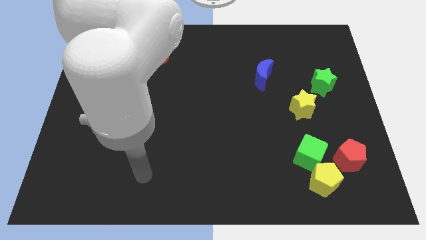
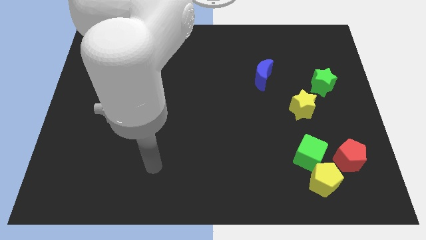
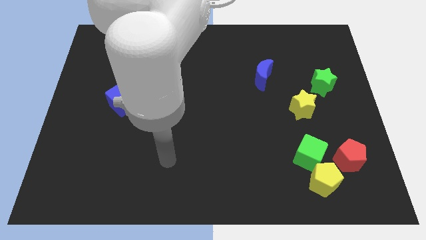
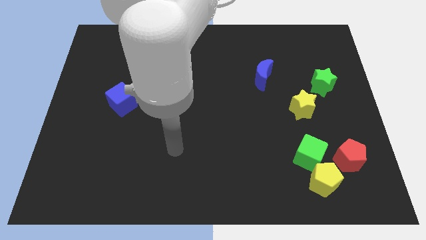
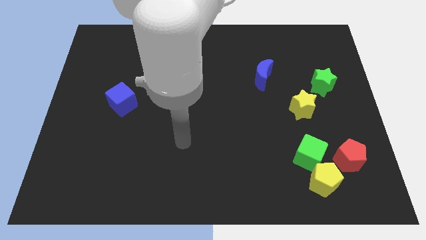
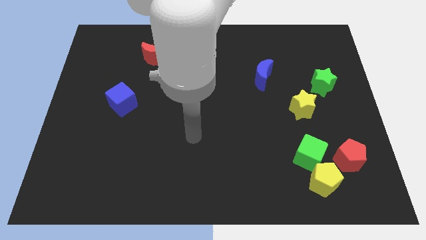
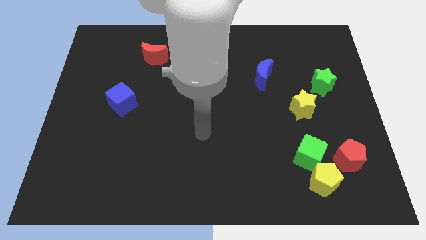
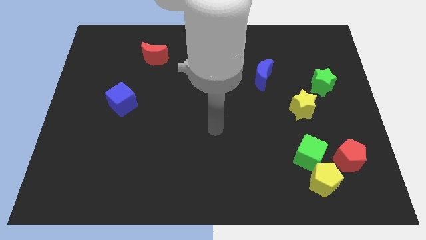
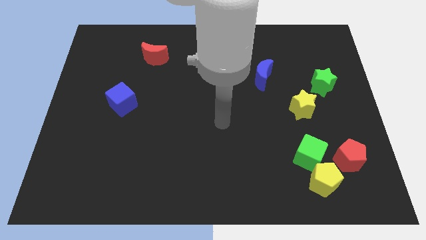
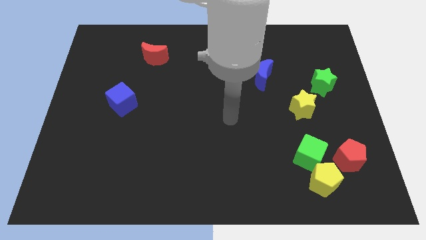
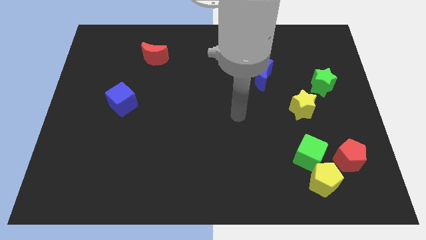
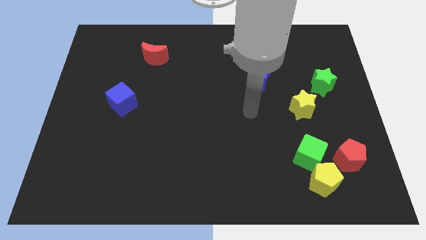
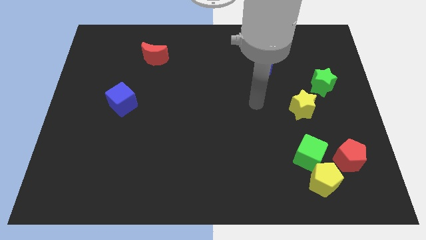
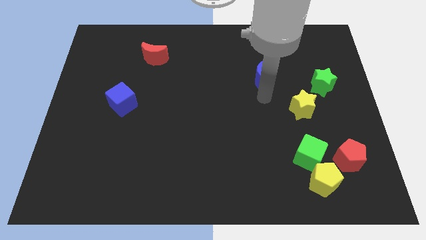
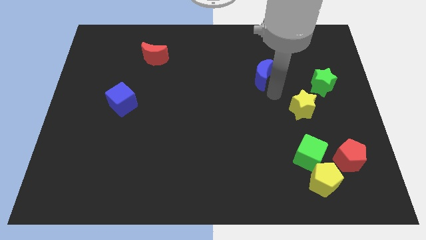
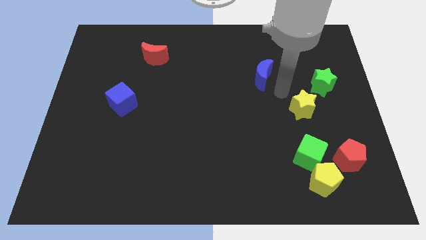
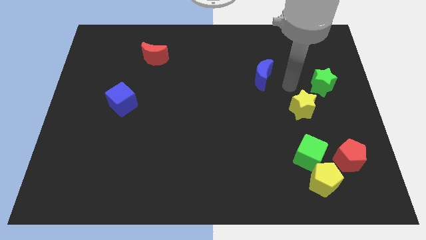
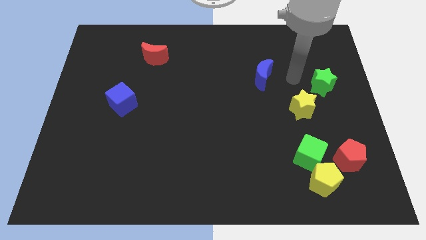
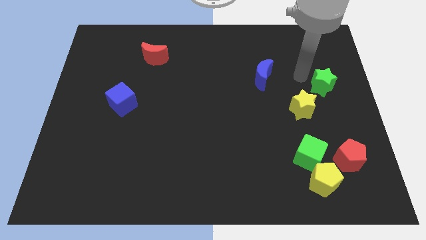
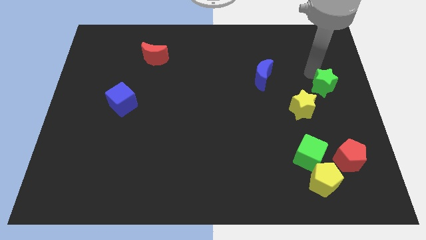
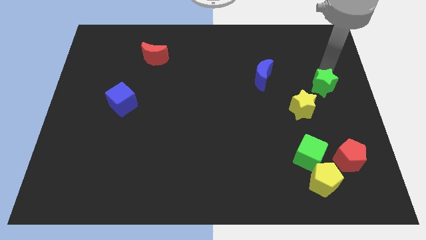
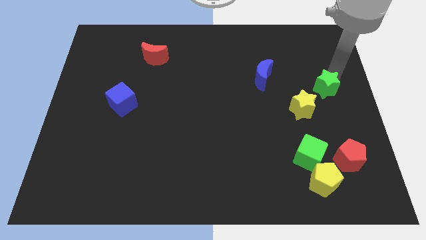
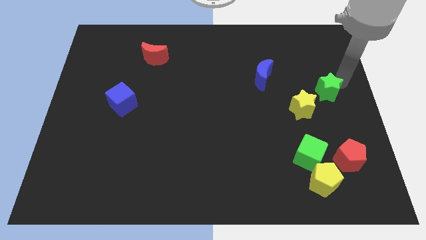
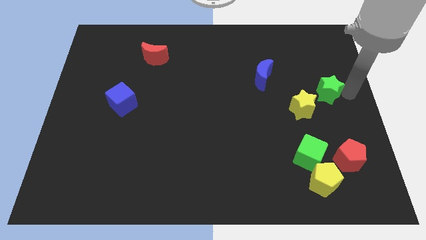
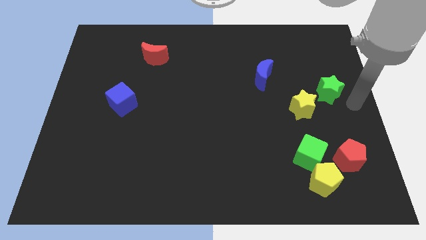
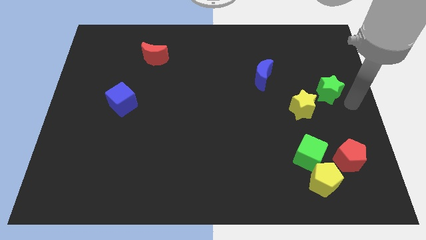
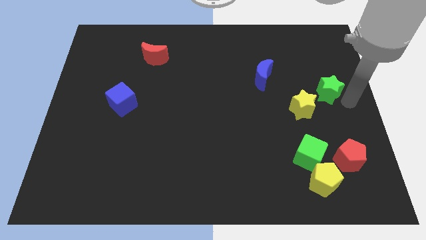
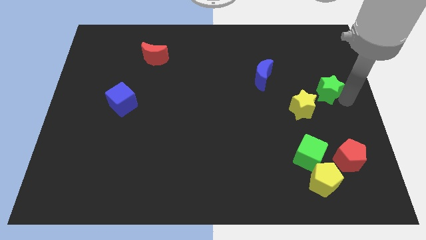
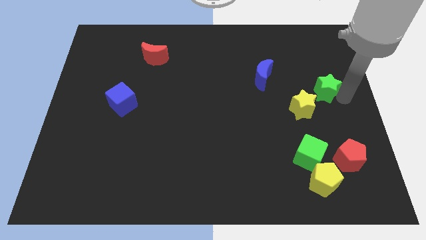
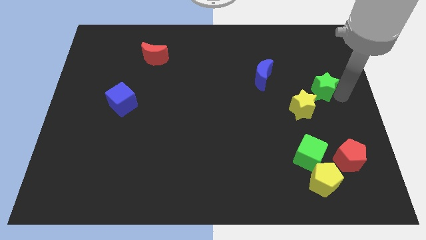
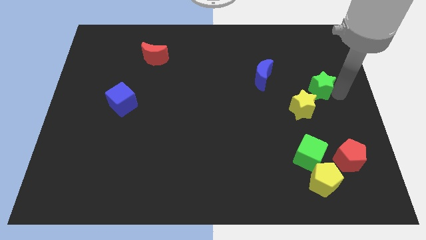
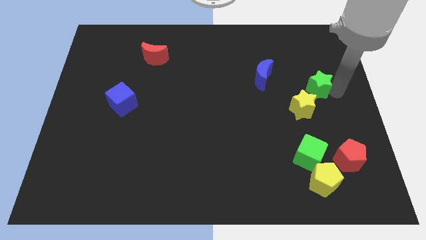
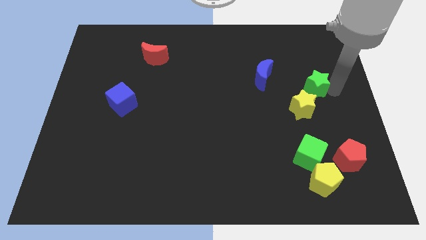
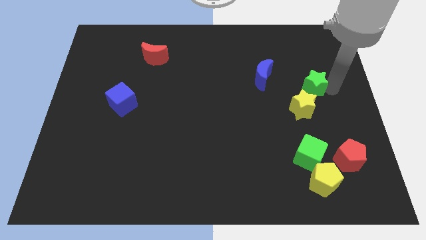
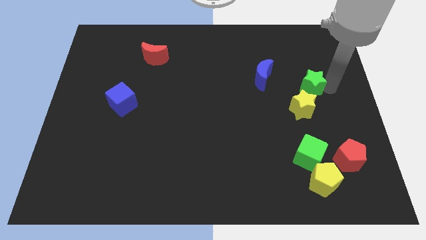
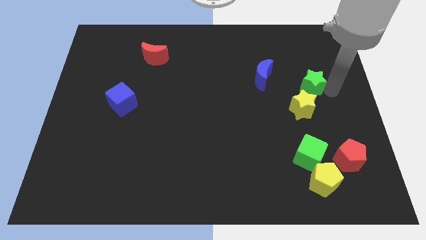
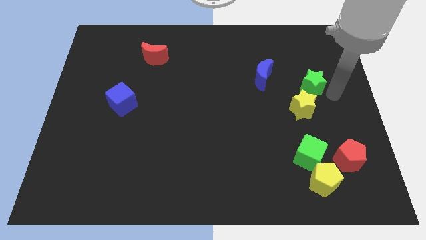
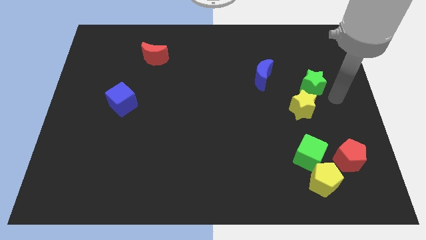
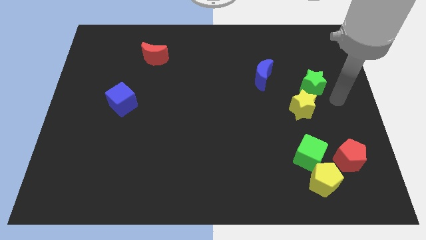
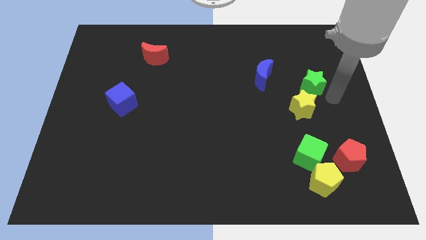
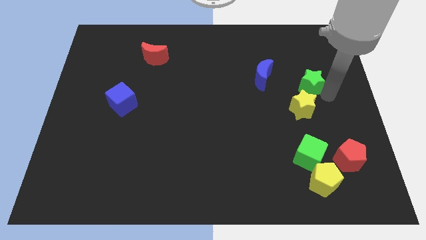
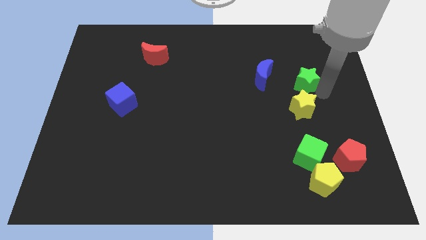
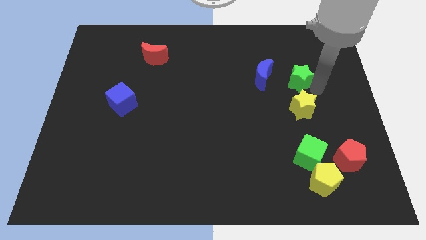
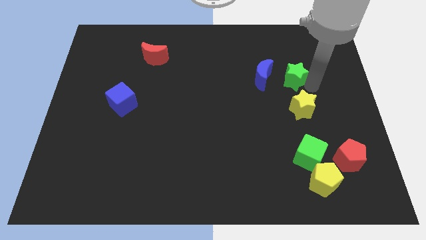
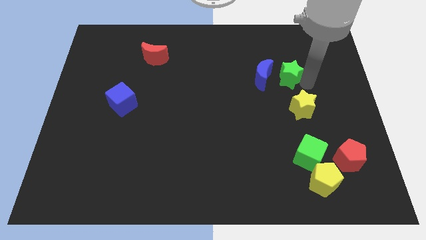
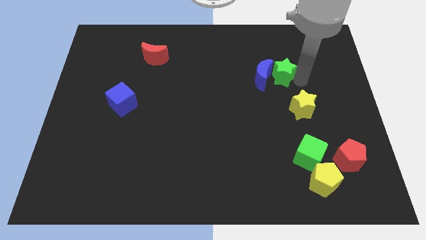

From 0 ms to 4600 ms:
move the green star close to the blue moon

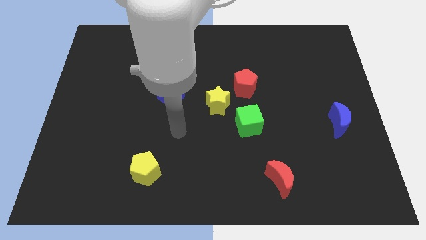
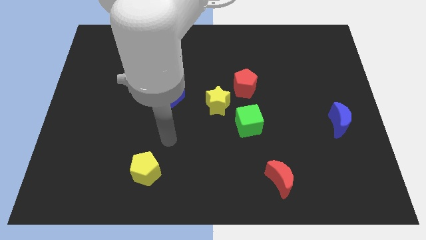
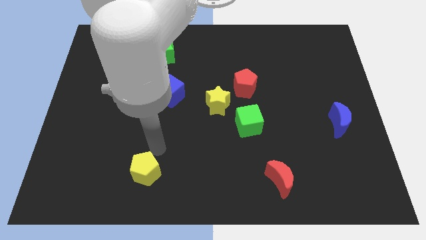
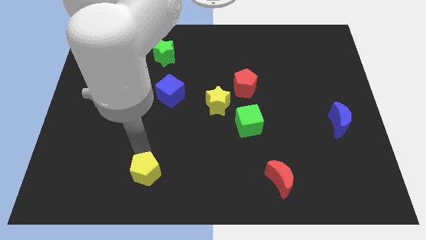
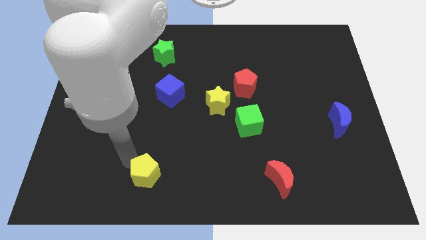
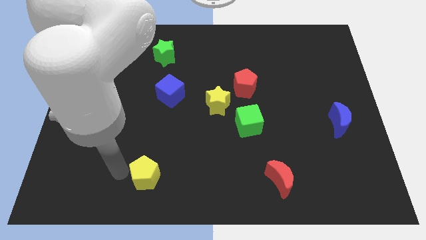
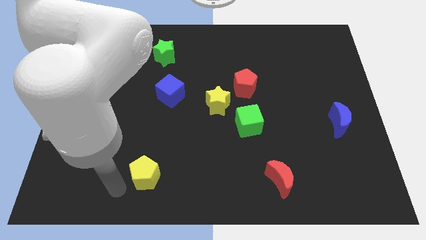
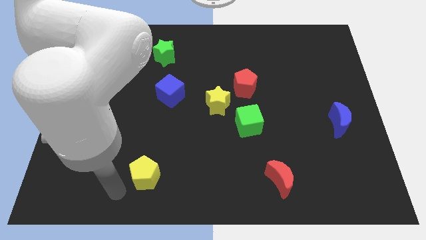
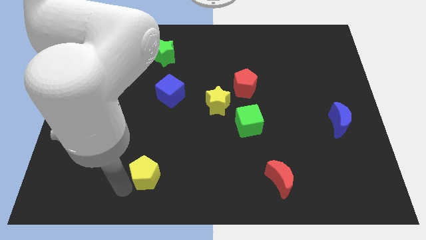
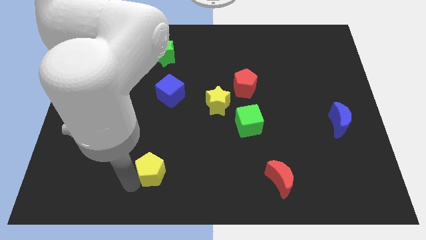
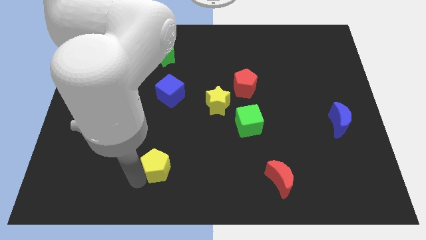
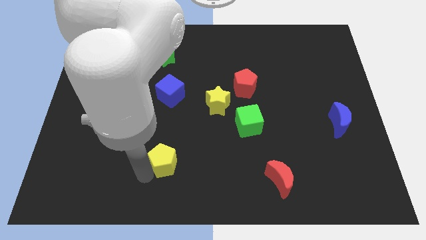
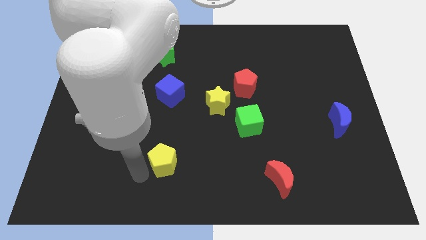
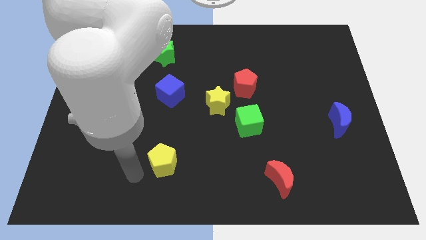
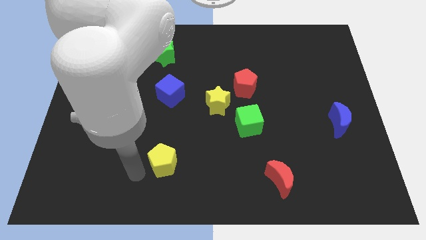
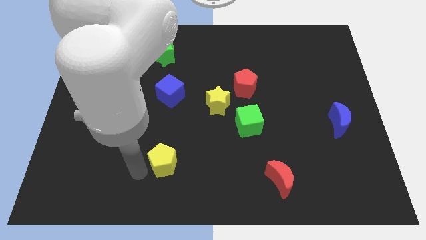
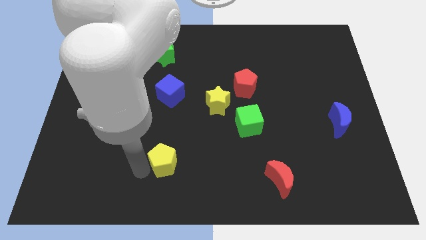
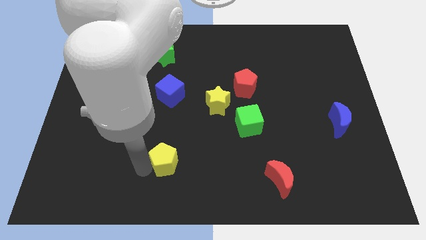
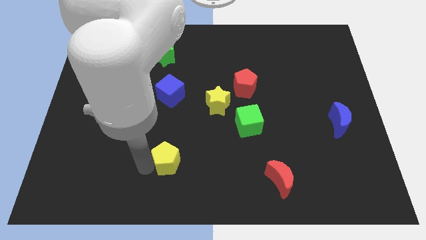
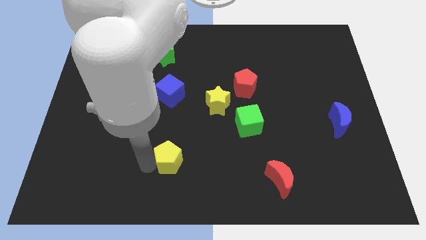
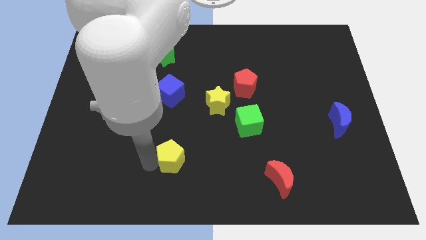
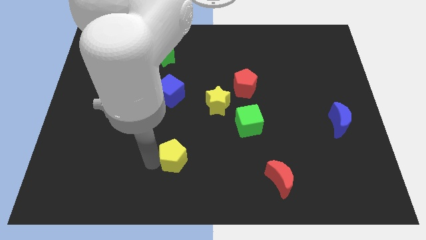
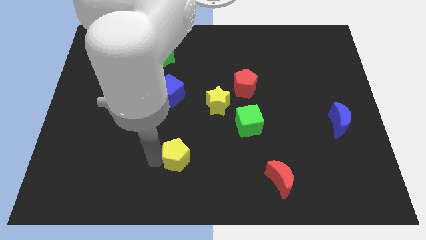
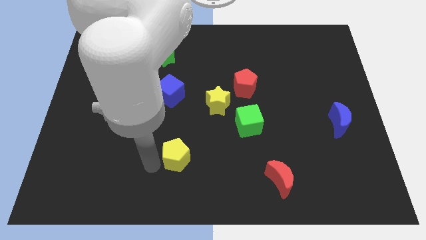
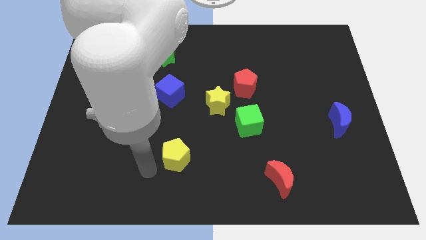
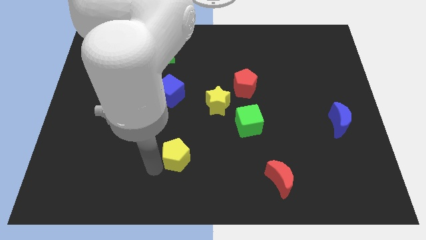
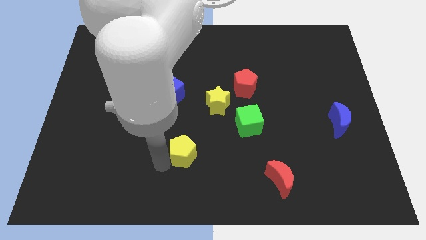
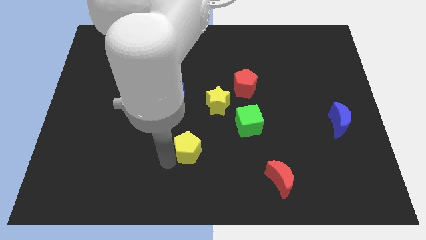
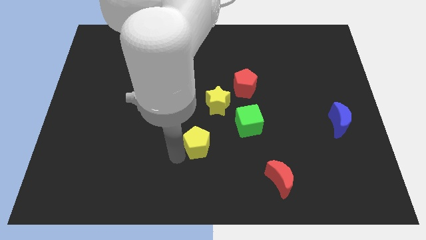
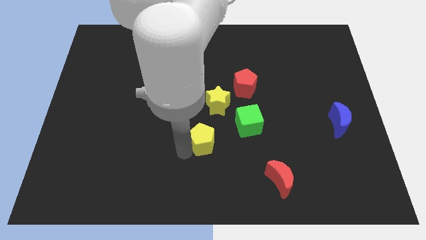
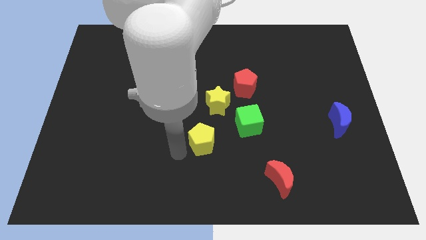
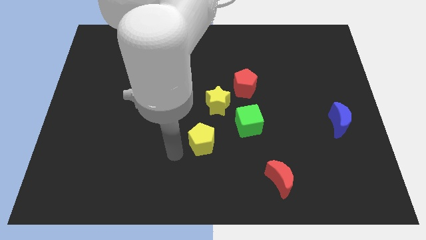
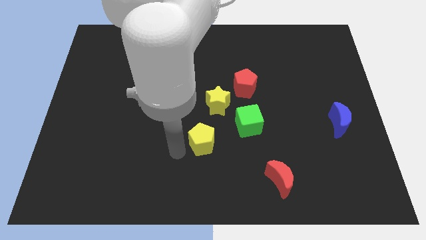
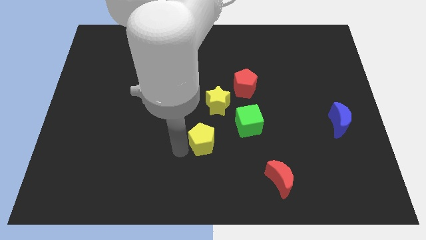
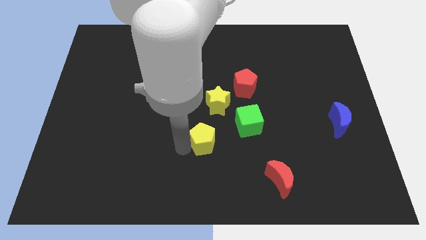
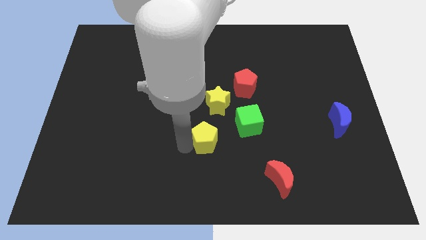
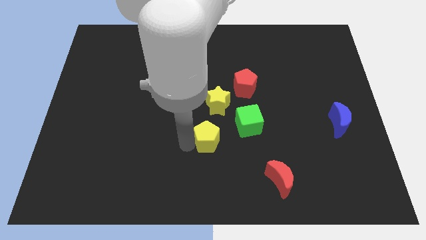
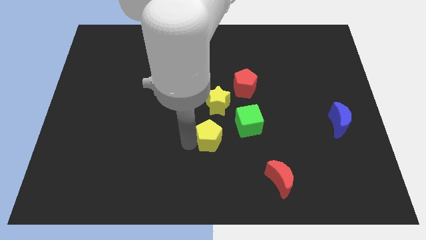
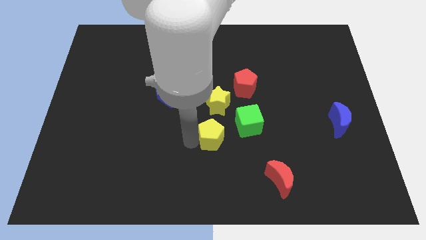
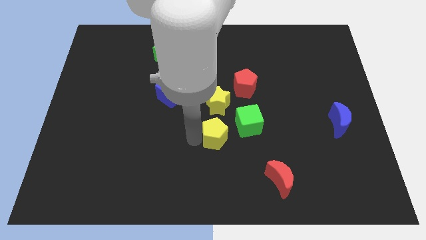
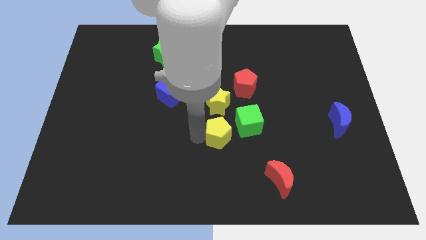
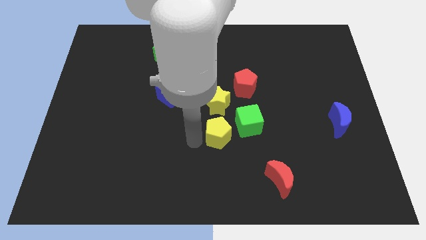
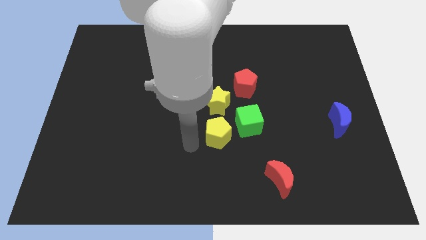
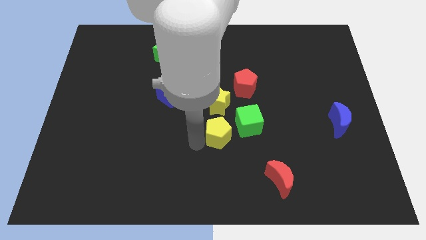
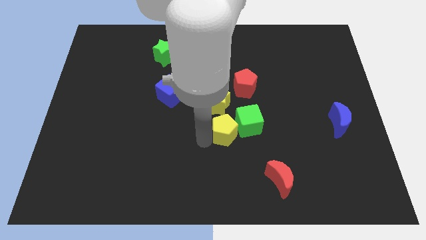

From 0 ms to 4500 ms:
push the yellow pentagon close to the green cube
